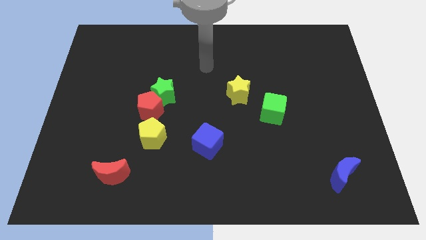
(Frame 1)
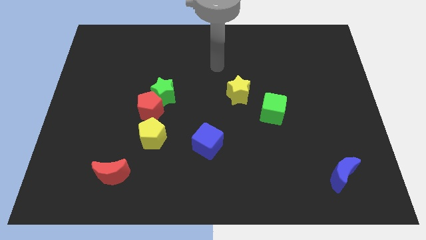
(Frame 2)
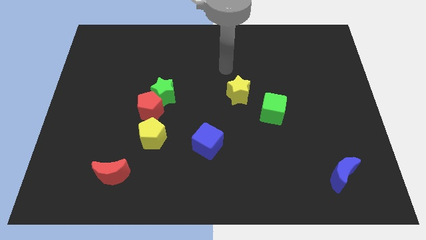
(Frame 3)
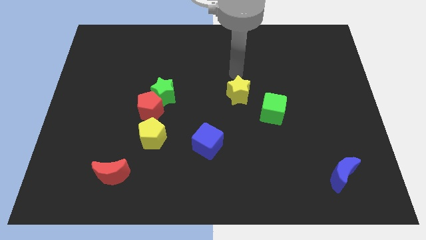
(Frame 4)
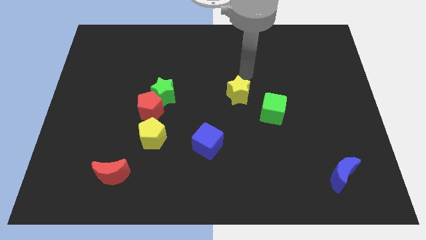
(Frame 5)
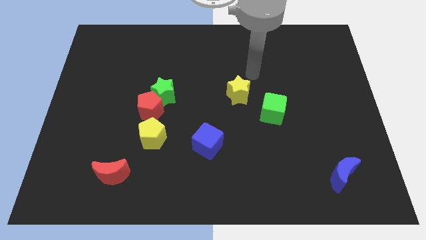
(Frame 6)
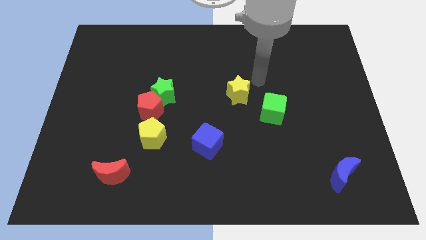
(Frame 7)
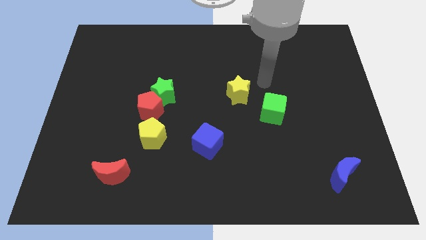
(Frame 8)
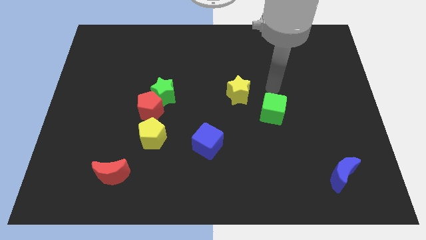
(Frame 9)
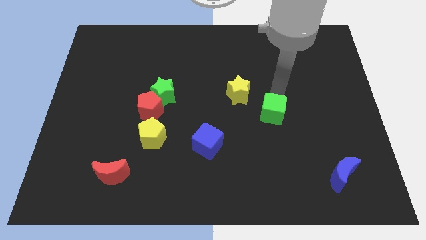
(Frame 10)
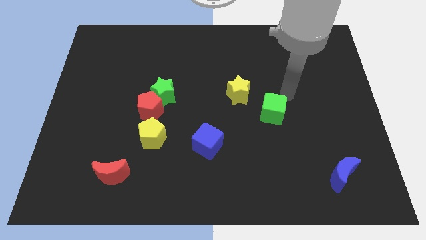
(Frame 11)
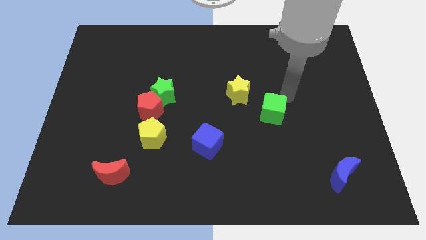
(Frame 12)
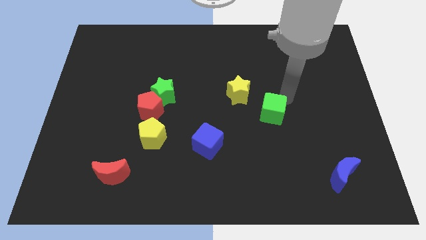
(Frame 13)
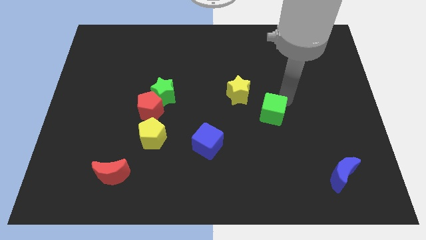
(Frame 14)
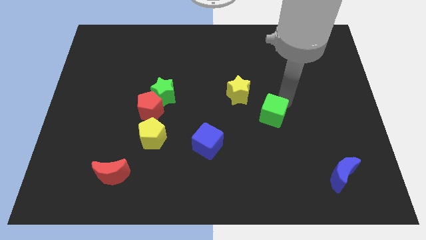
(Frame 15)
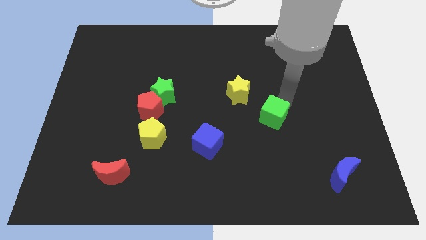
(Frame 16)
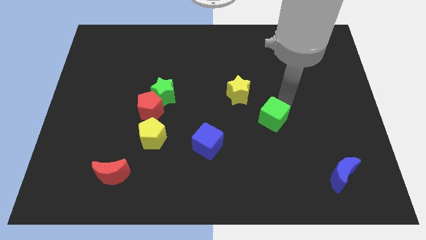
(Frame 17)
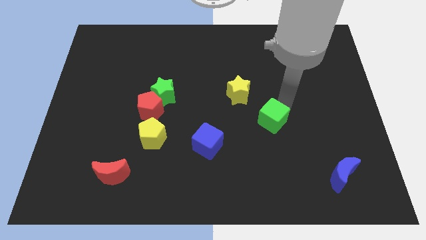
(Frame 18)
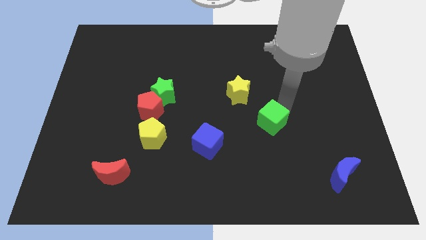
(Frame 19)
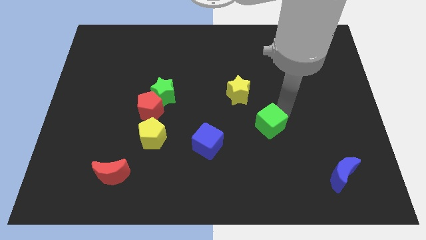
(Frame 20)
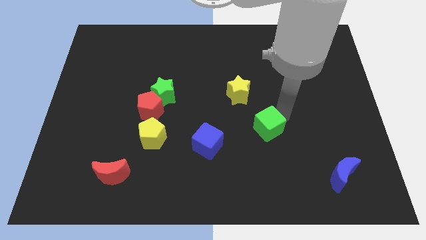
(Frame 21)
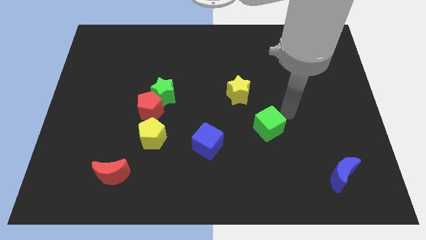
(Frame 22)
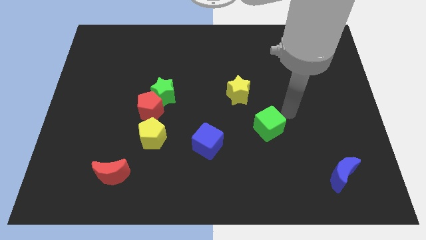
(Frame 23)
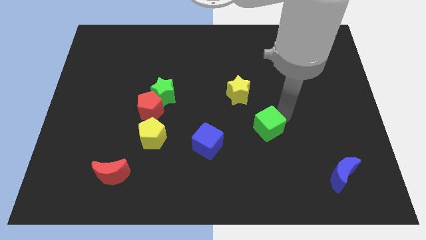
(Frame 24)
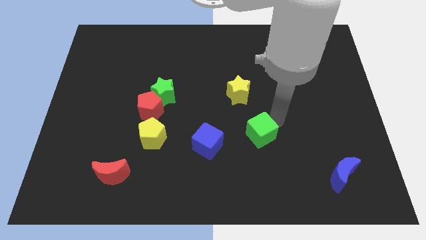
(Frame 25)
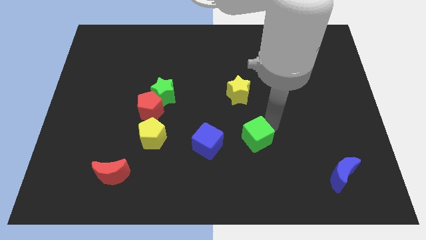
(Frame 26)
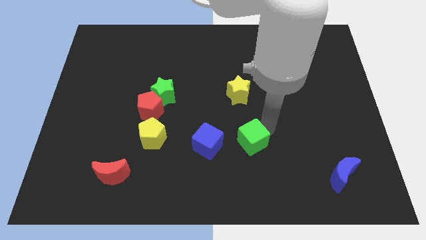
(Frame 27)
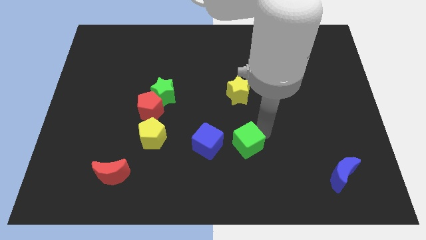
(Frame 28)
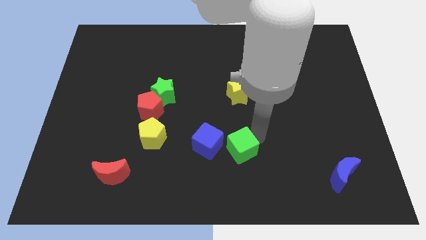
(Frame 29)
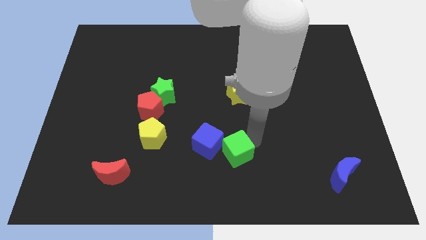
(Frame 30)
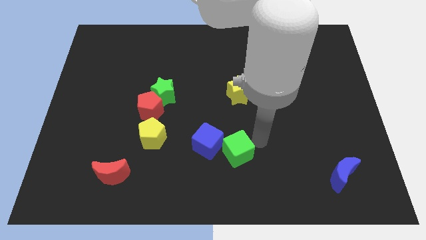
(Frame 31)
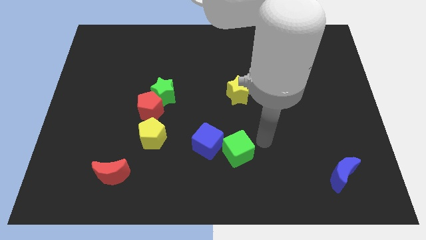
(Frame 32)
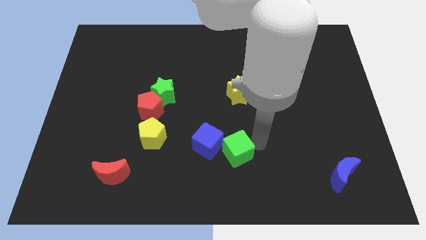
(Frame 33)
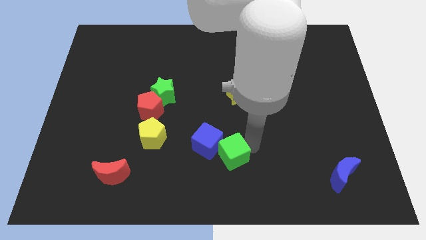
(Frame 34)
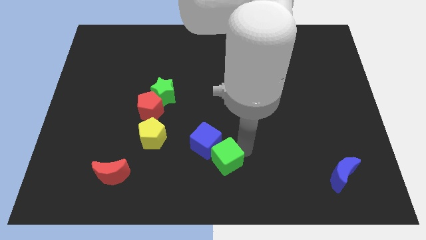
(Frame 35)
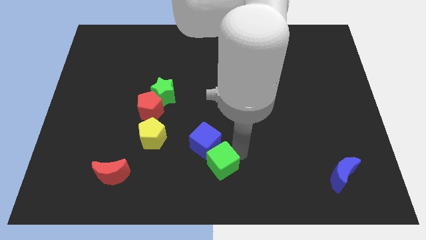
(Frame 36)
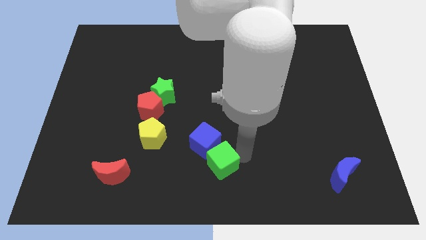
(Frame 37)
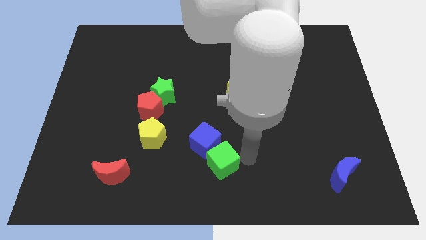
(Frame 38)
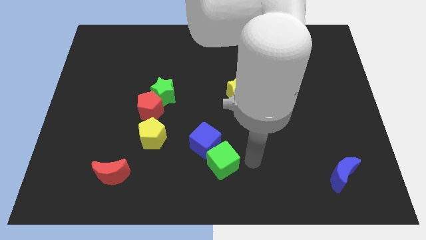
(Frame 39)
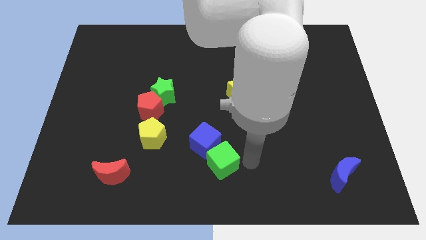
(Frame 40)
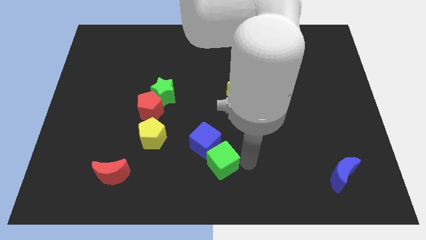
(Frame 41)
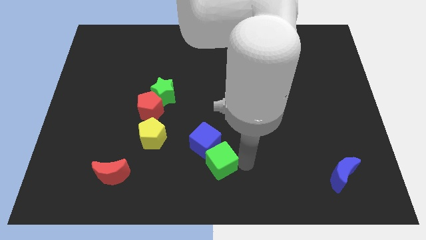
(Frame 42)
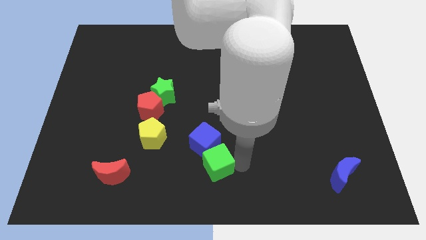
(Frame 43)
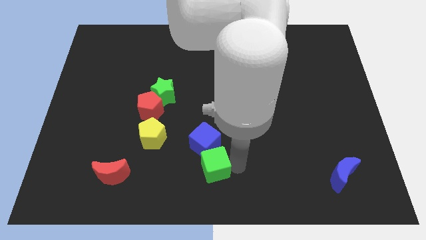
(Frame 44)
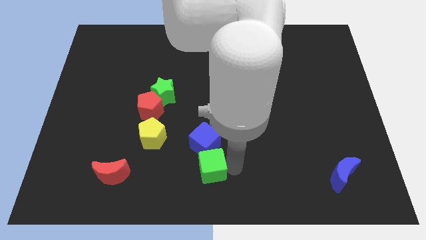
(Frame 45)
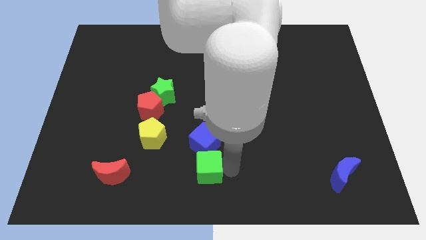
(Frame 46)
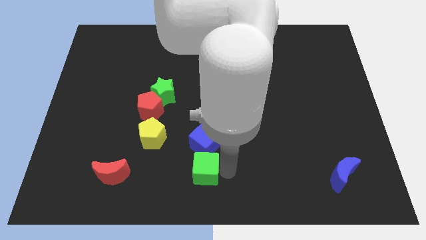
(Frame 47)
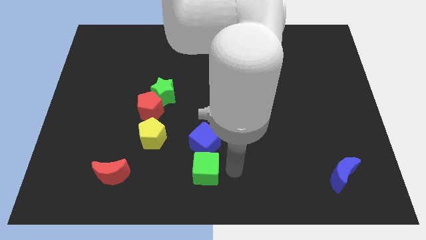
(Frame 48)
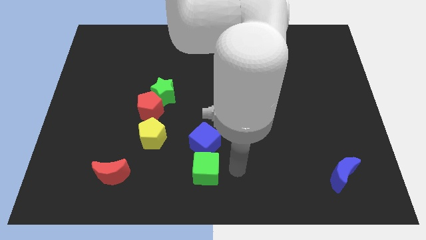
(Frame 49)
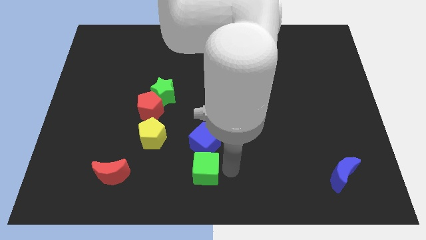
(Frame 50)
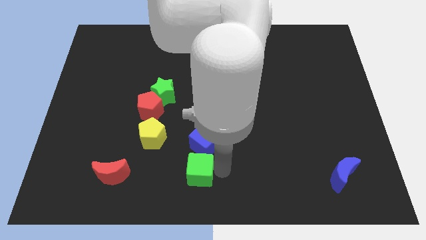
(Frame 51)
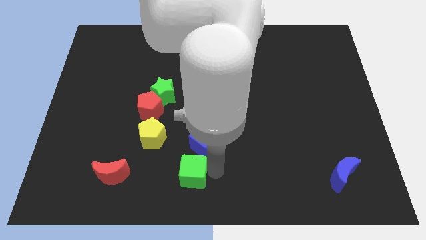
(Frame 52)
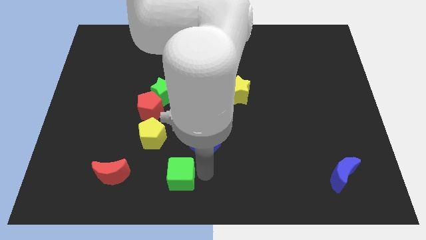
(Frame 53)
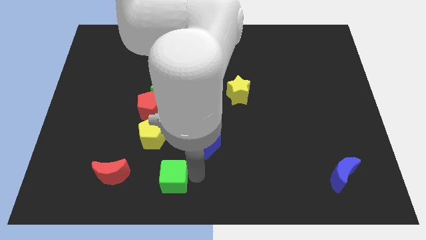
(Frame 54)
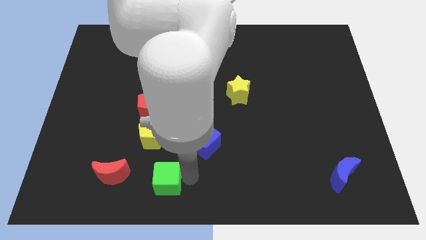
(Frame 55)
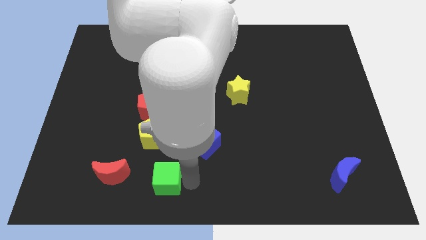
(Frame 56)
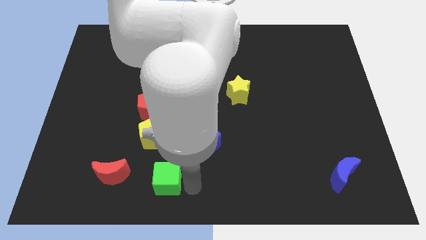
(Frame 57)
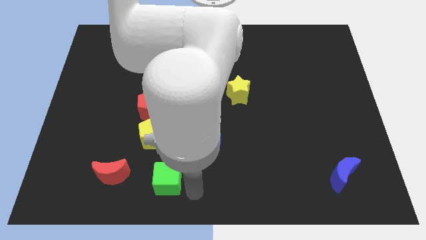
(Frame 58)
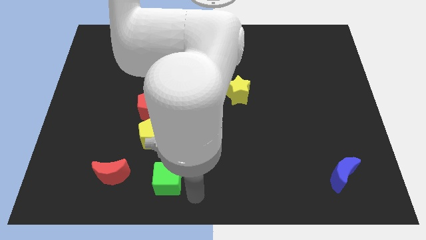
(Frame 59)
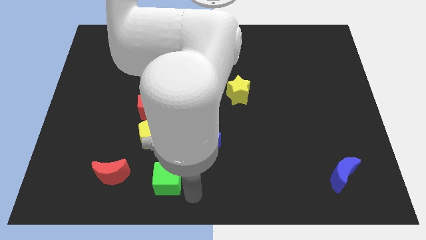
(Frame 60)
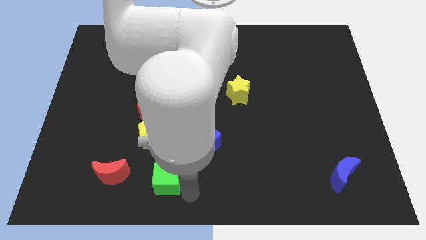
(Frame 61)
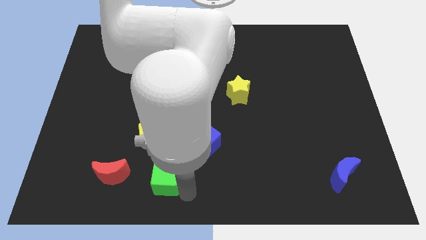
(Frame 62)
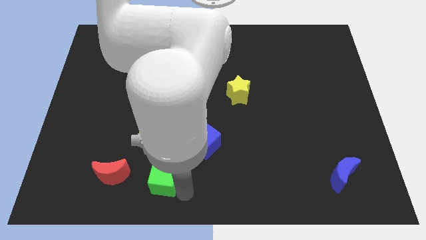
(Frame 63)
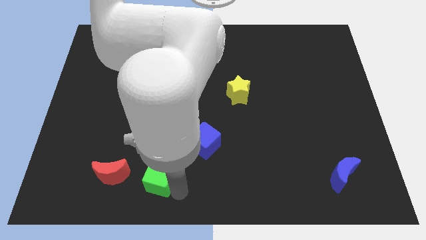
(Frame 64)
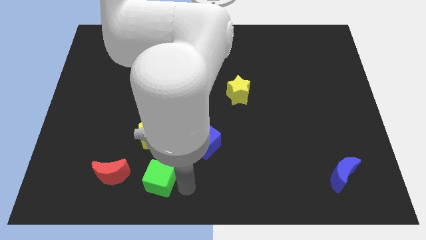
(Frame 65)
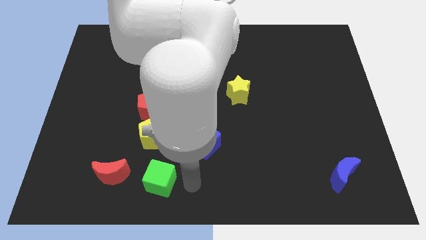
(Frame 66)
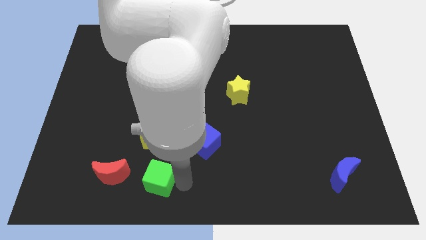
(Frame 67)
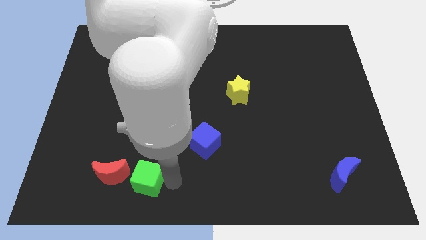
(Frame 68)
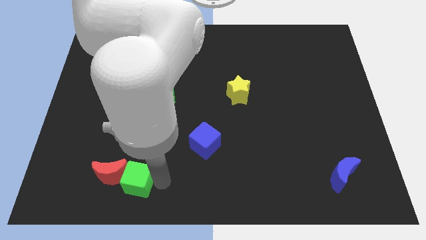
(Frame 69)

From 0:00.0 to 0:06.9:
push the green cube close to the red moon
